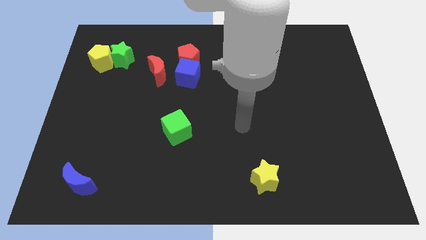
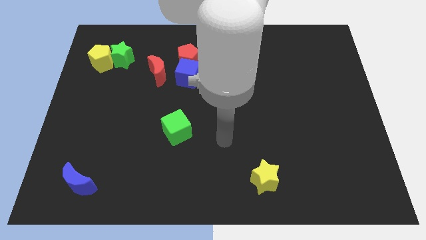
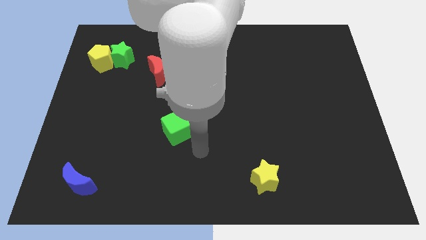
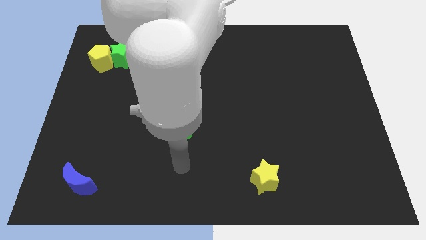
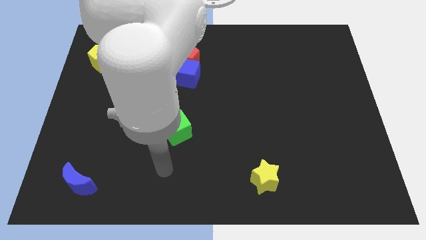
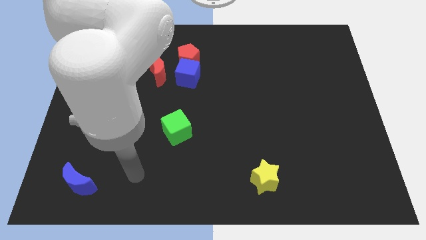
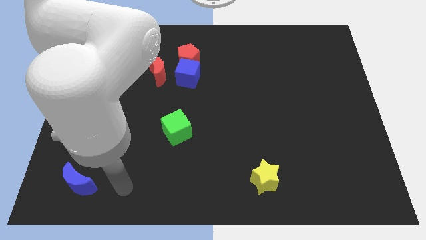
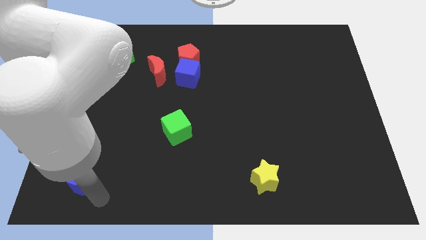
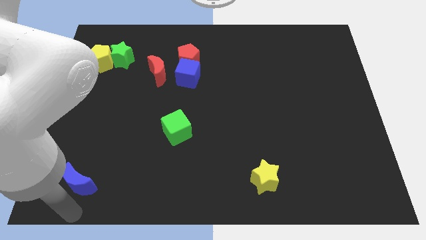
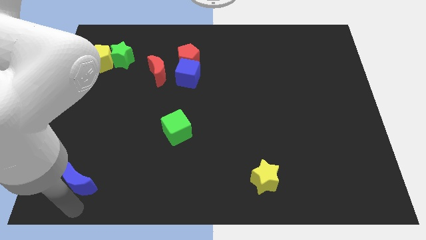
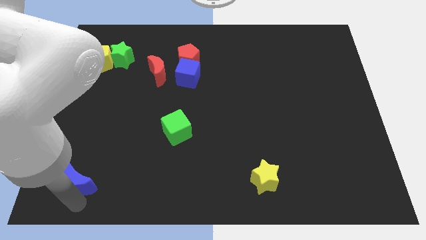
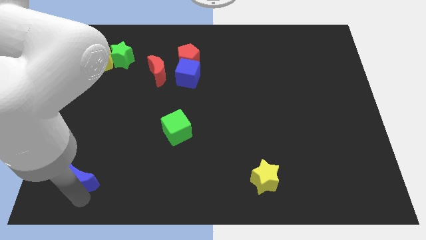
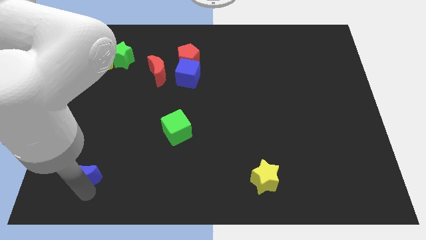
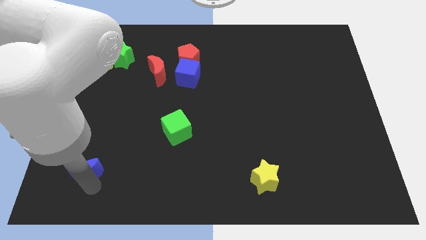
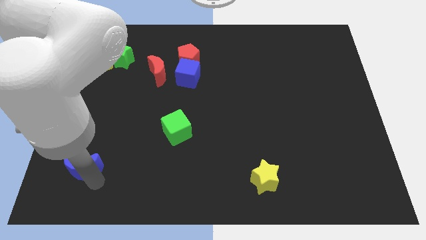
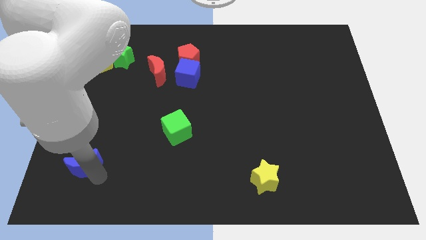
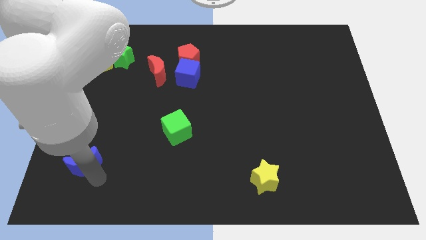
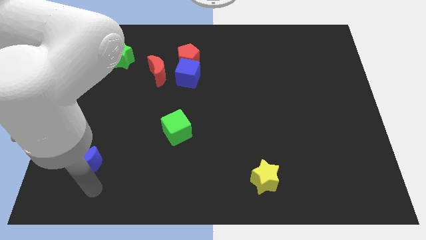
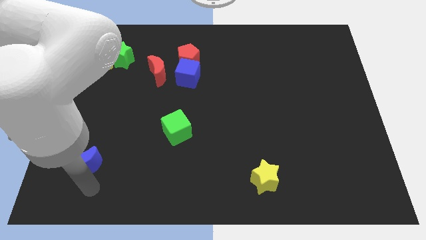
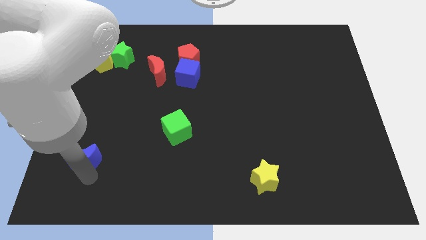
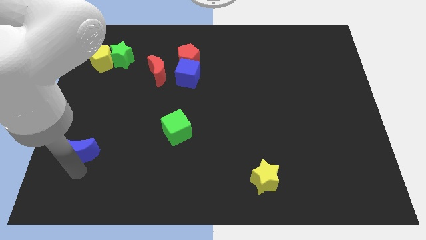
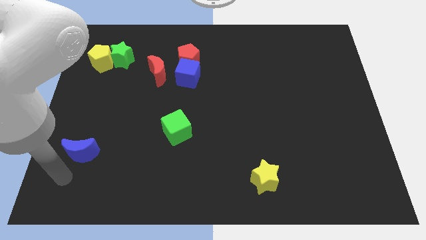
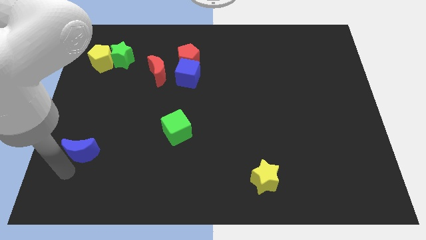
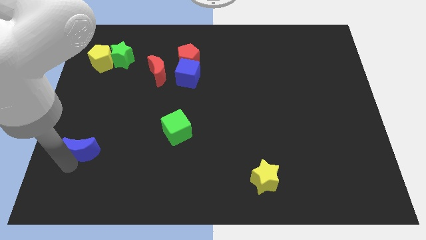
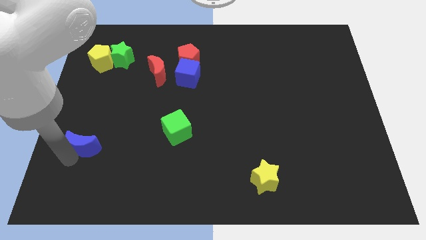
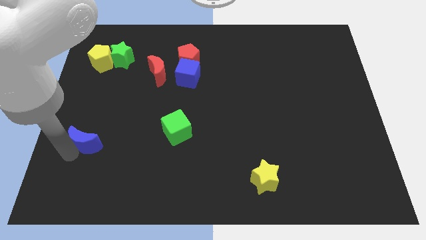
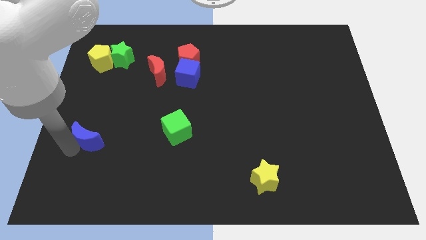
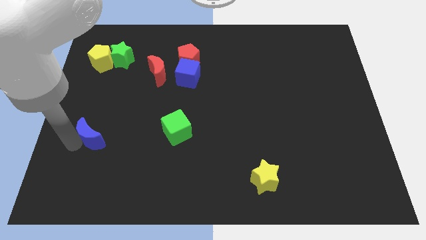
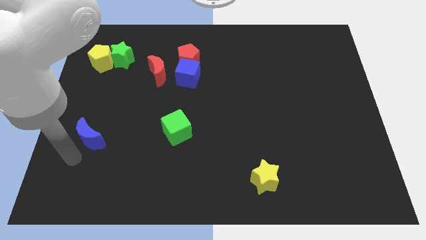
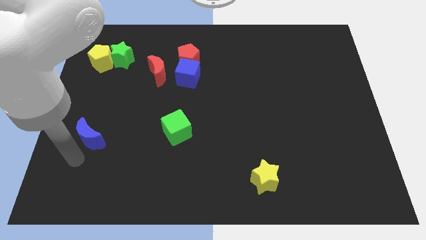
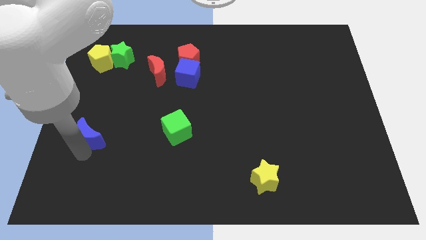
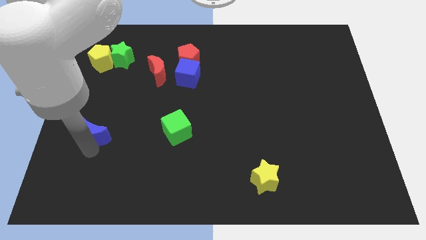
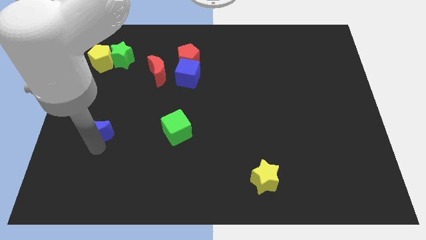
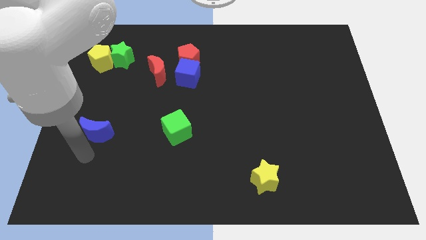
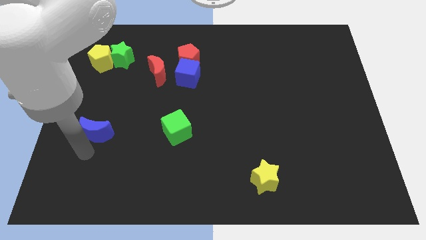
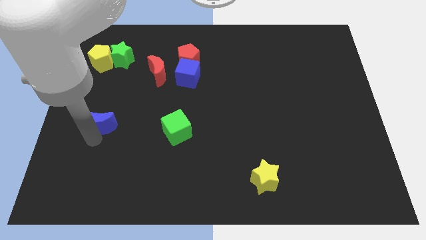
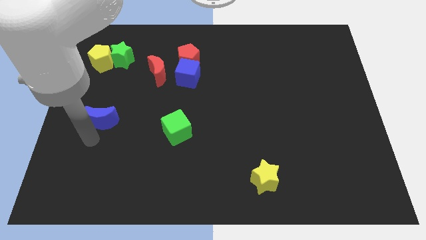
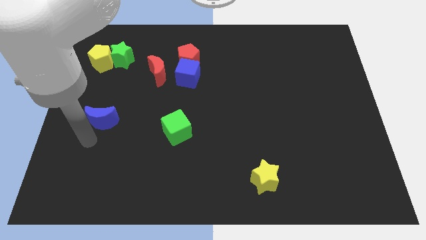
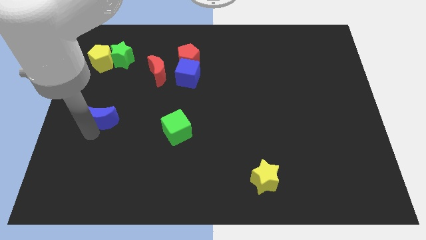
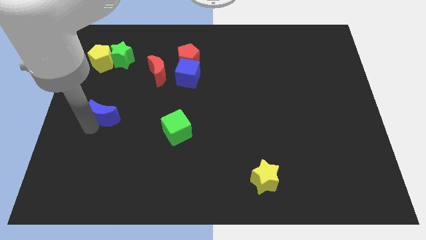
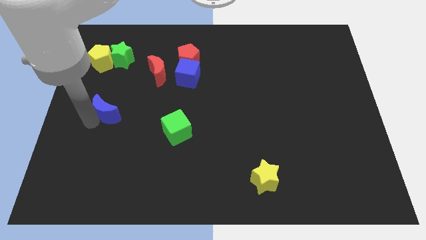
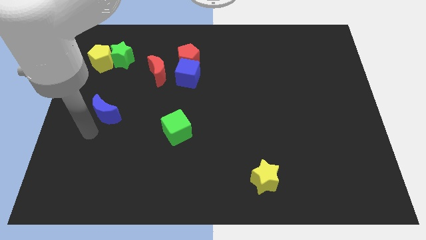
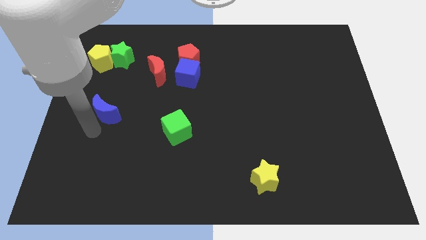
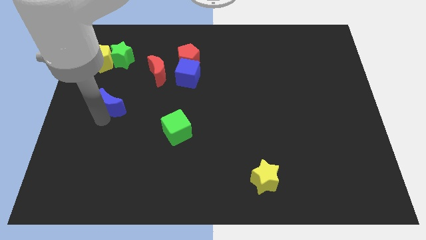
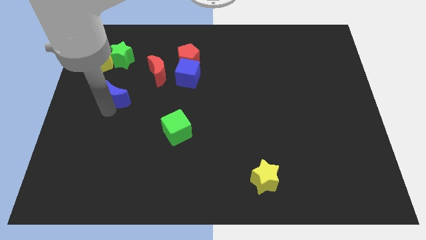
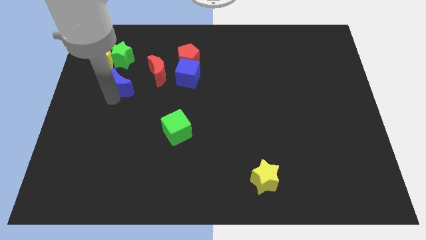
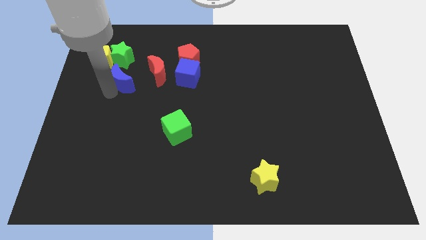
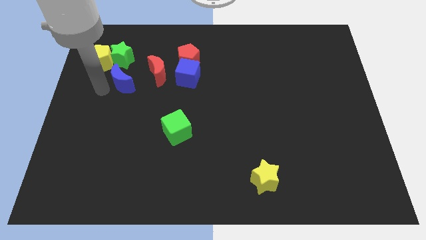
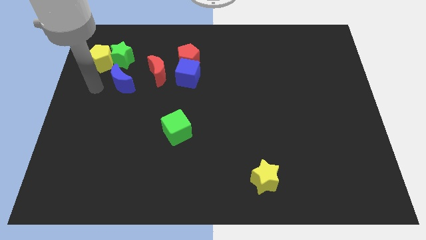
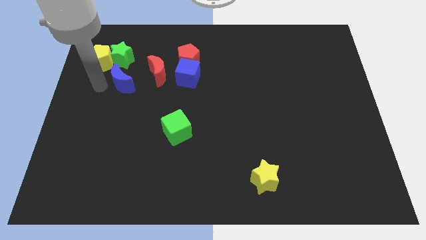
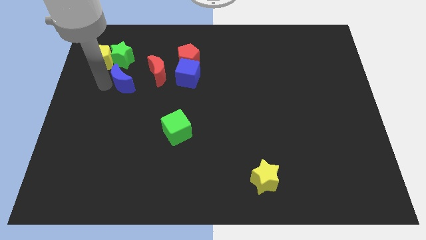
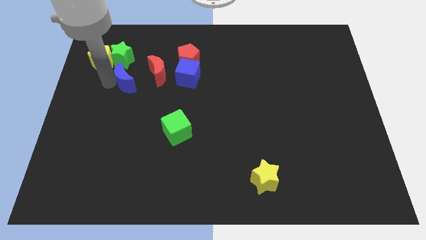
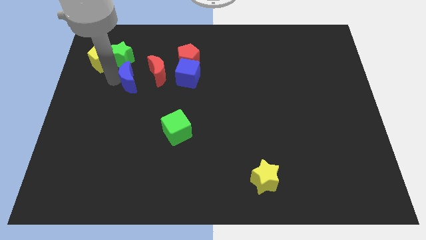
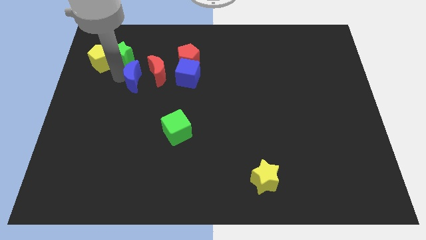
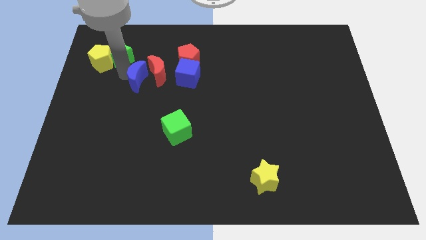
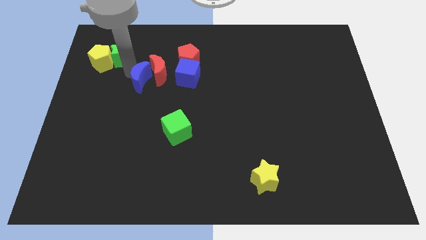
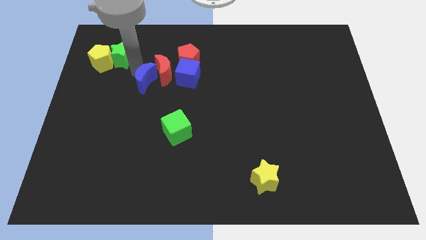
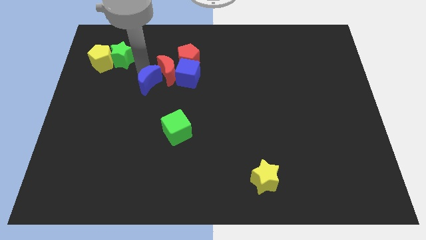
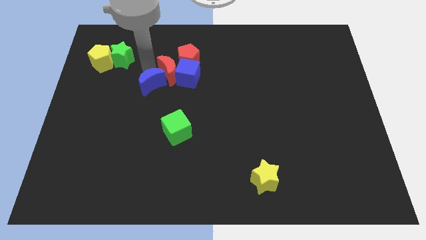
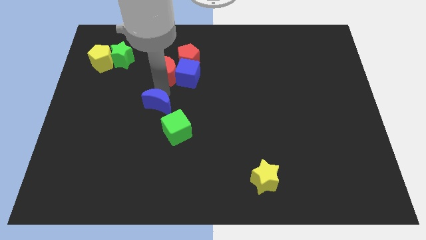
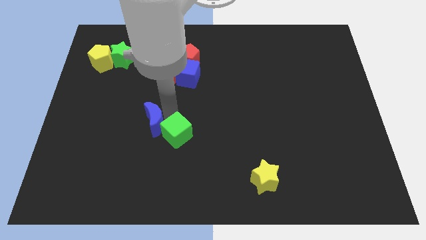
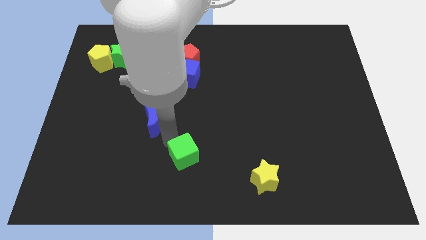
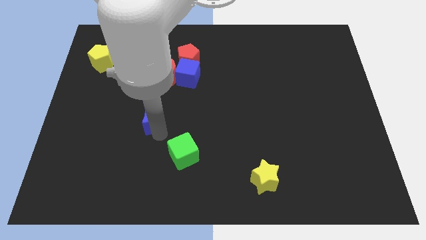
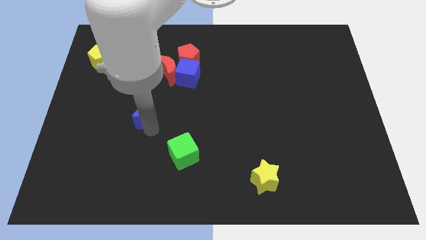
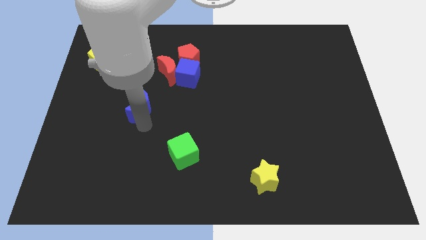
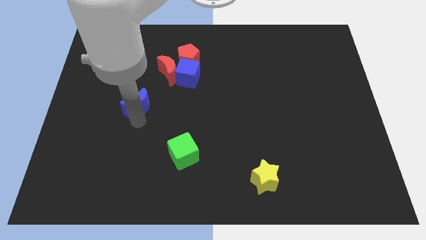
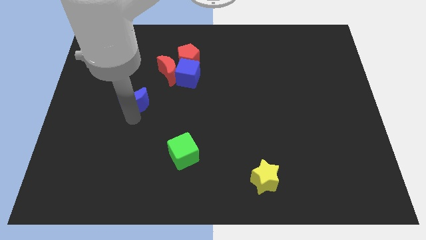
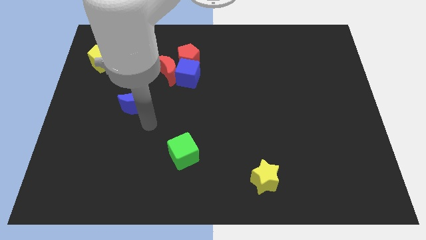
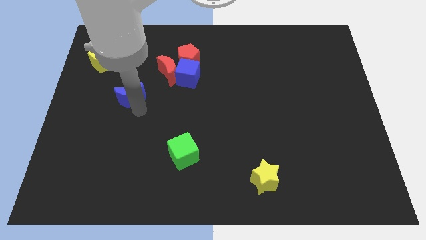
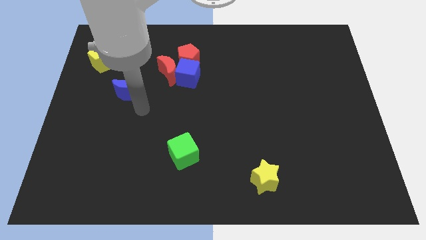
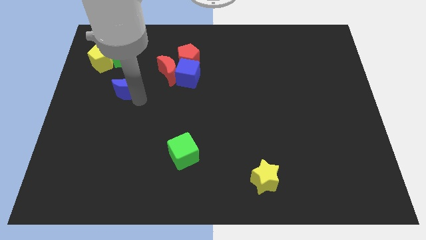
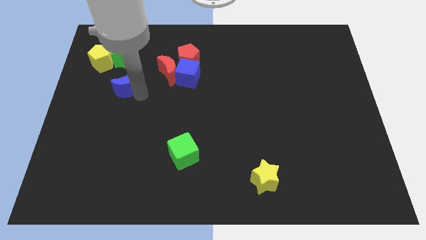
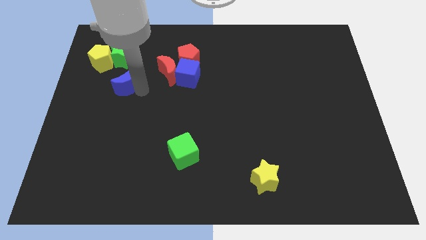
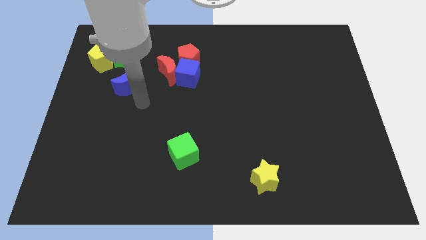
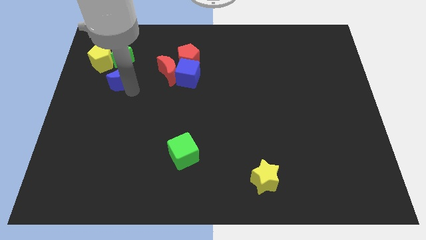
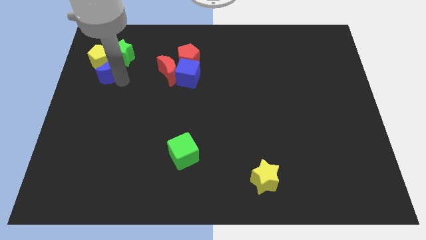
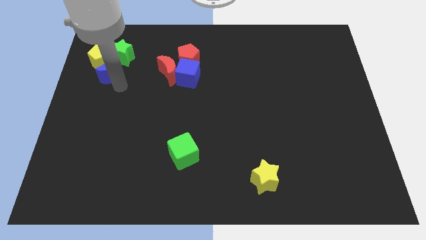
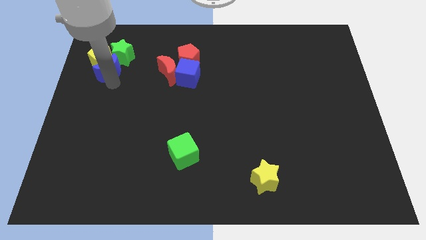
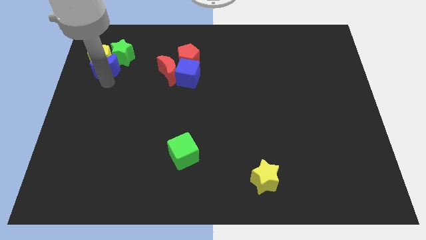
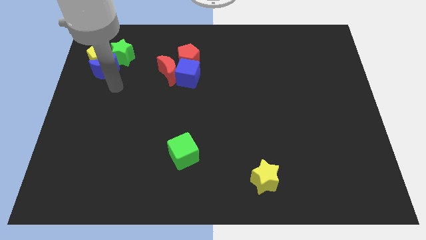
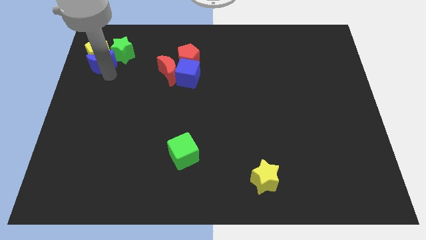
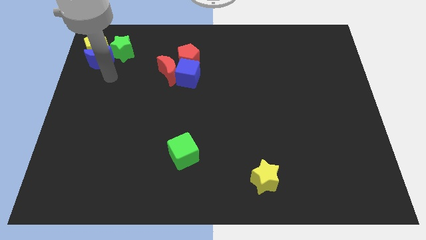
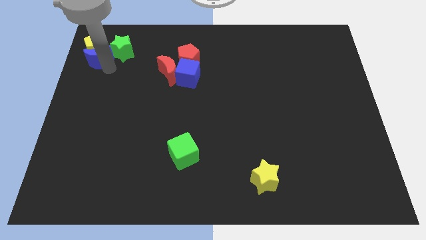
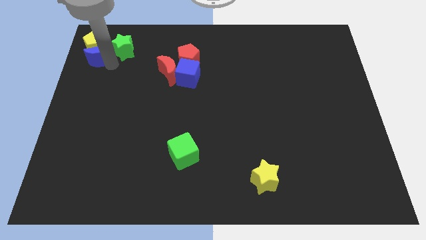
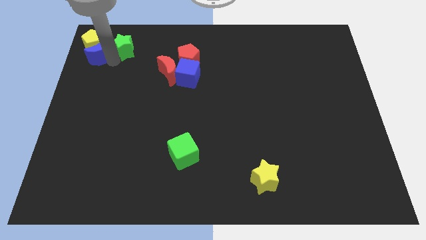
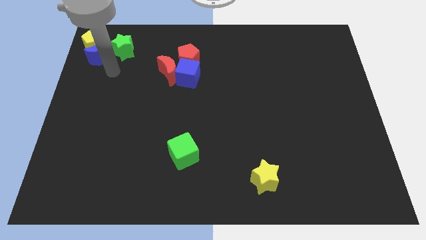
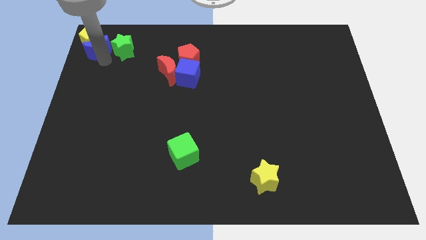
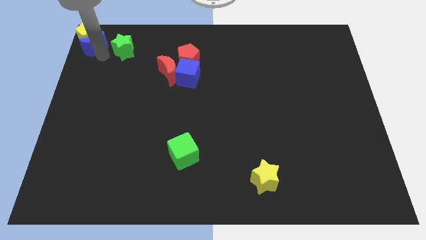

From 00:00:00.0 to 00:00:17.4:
slide the blue moon to the top left of the board
